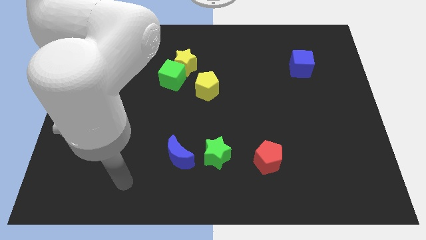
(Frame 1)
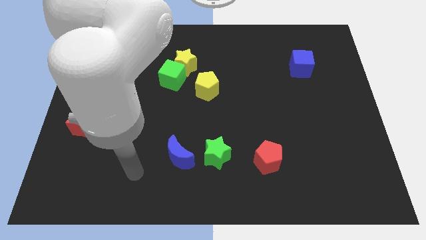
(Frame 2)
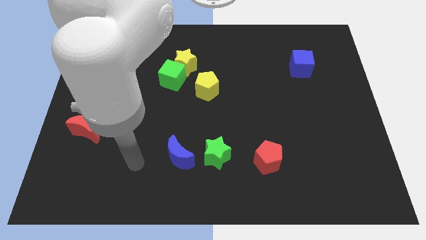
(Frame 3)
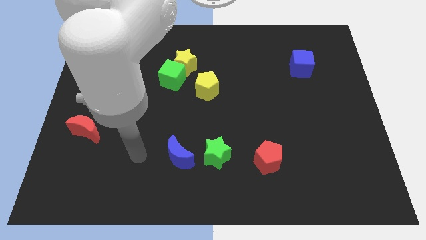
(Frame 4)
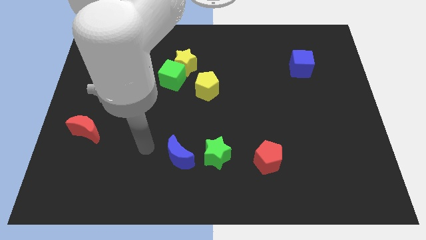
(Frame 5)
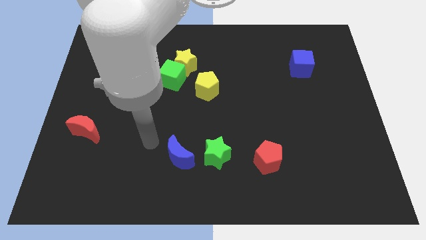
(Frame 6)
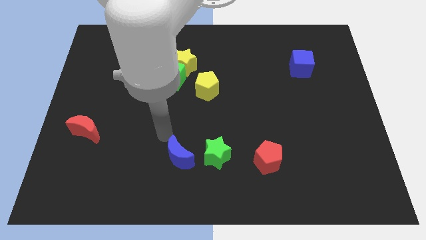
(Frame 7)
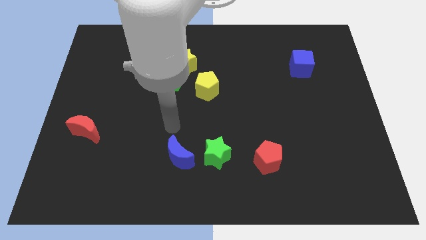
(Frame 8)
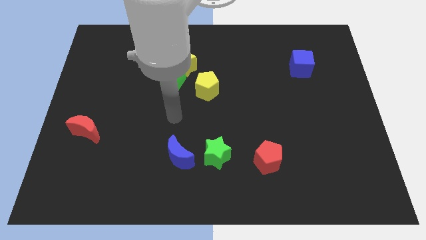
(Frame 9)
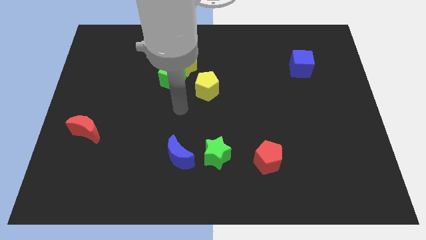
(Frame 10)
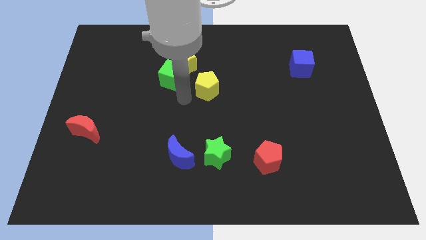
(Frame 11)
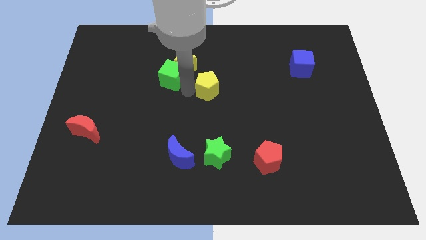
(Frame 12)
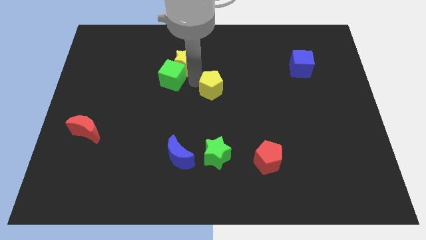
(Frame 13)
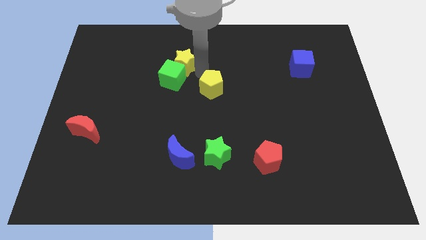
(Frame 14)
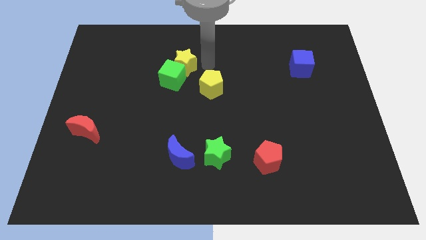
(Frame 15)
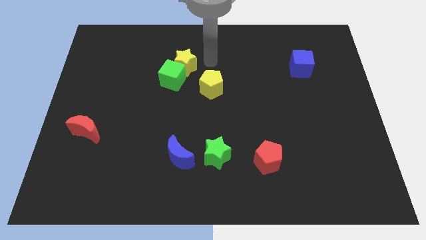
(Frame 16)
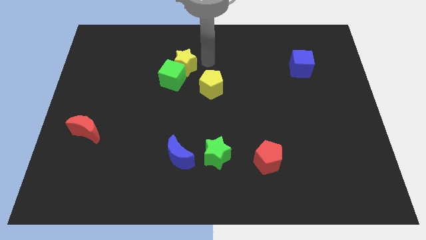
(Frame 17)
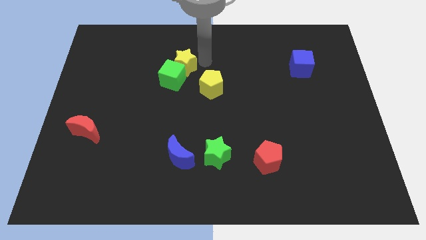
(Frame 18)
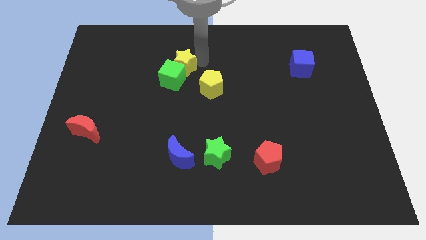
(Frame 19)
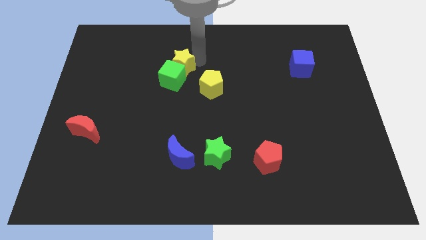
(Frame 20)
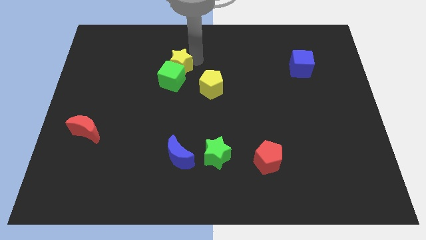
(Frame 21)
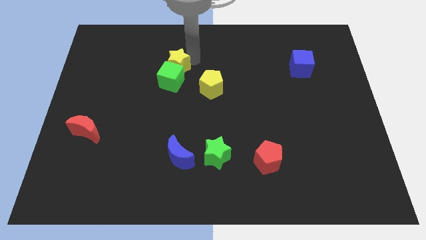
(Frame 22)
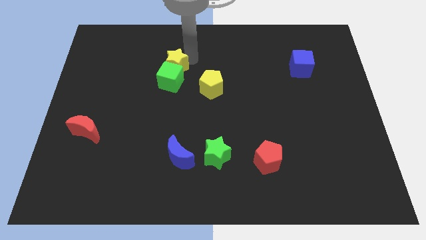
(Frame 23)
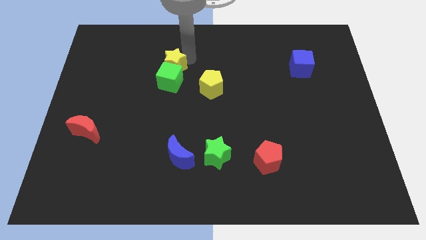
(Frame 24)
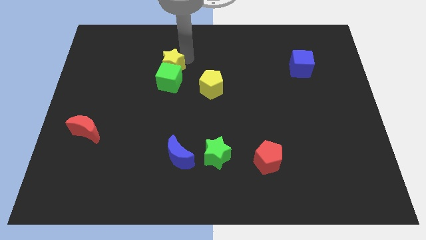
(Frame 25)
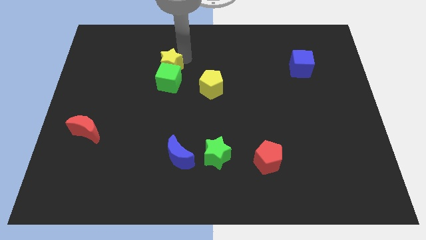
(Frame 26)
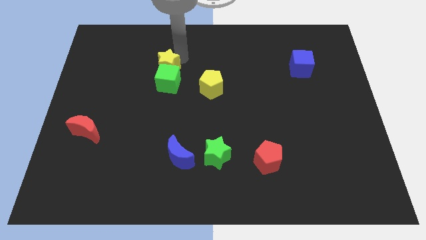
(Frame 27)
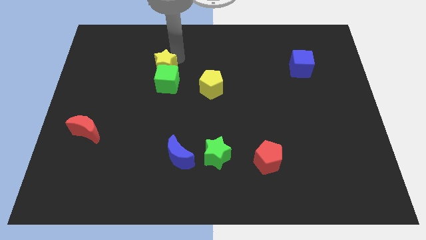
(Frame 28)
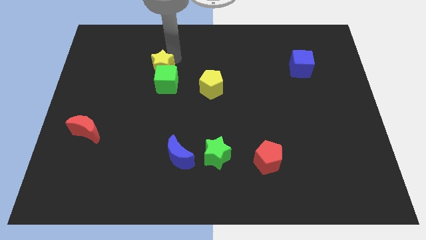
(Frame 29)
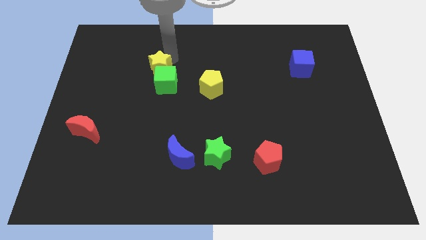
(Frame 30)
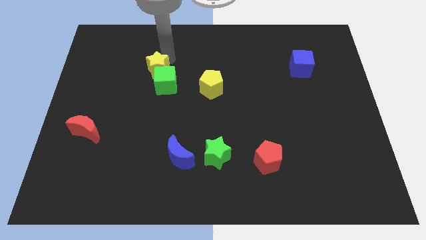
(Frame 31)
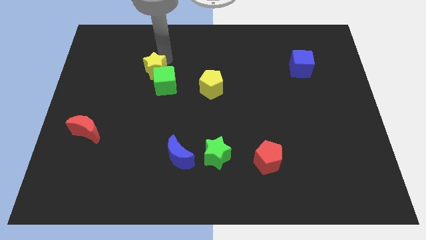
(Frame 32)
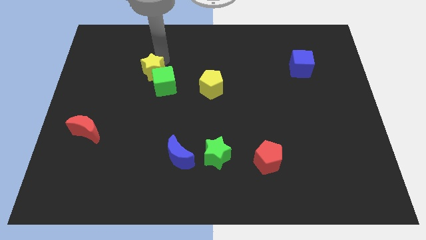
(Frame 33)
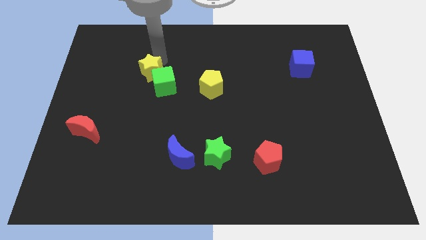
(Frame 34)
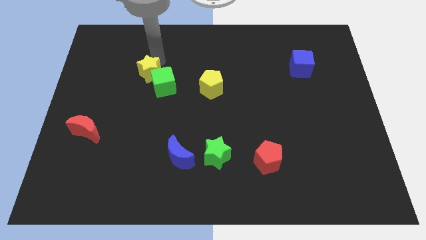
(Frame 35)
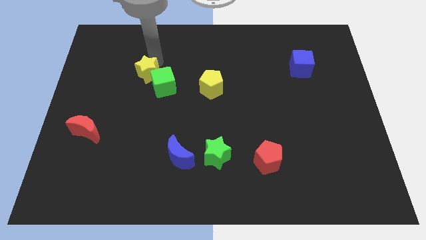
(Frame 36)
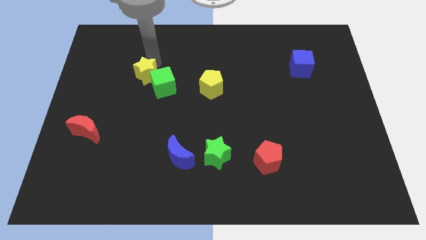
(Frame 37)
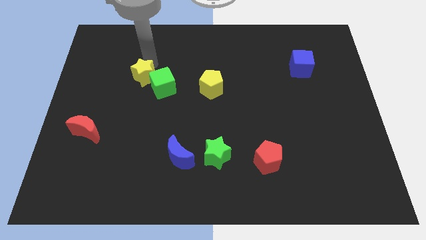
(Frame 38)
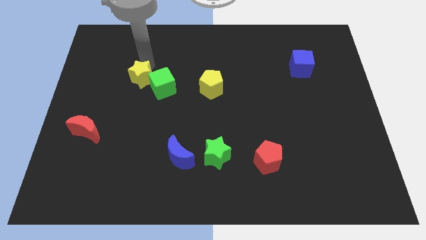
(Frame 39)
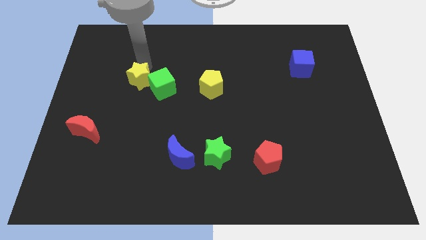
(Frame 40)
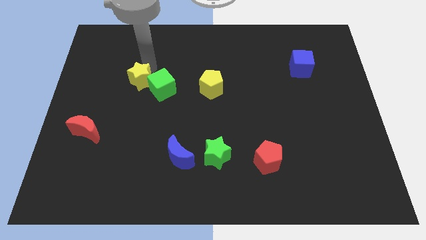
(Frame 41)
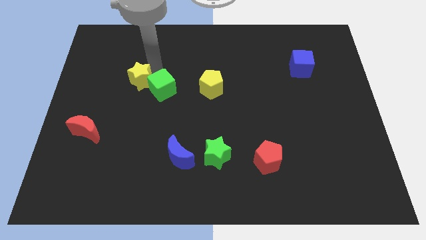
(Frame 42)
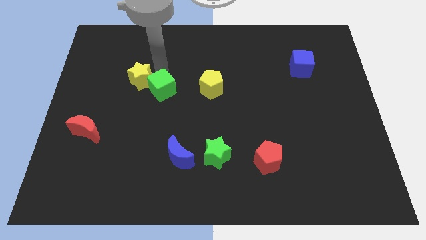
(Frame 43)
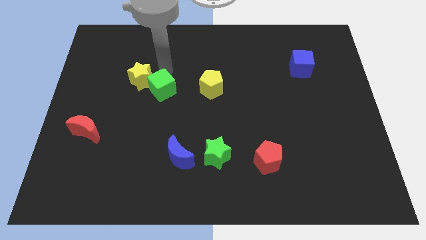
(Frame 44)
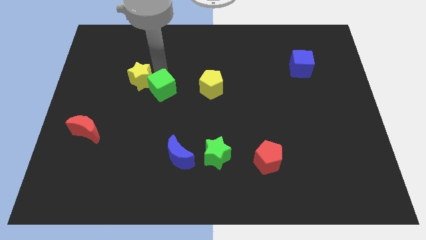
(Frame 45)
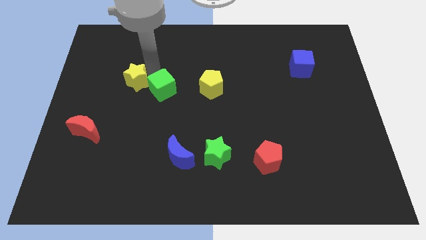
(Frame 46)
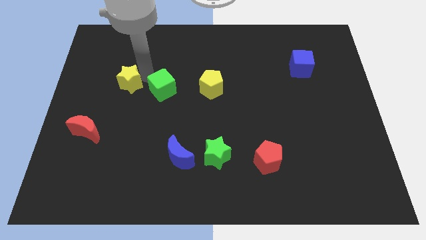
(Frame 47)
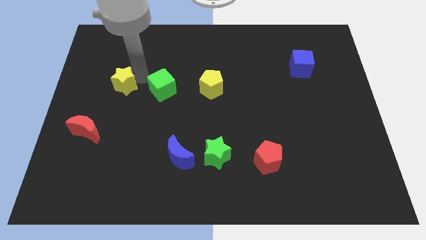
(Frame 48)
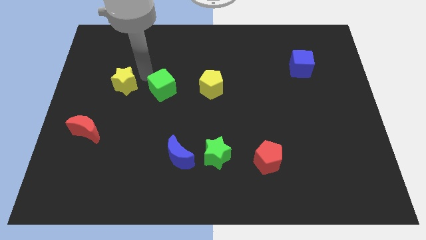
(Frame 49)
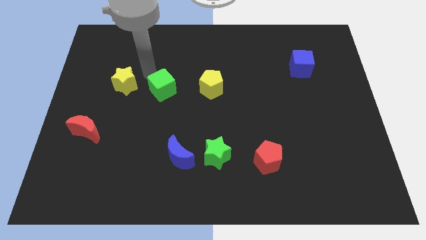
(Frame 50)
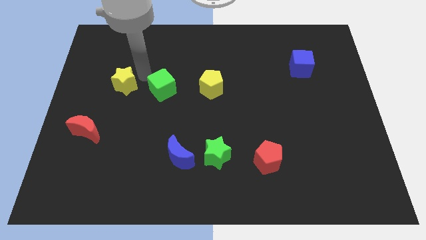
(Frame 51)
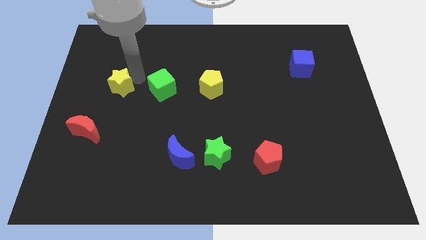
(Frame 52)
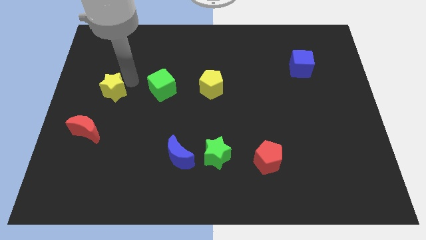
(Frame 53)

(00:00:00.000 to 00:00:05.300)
push the yellow star above the red moon

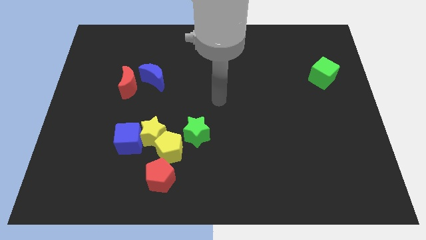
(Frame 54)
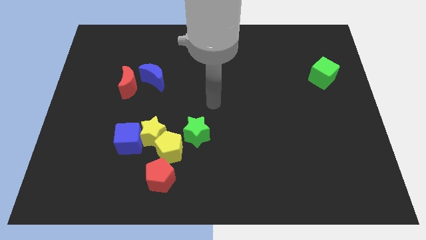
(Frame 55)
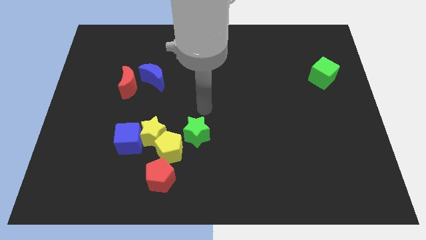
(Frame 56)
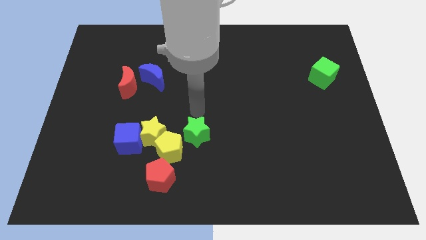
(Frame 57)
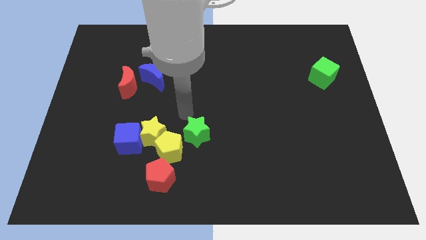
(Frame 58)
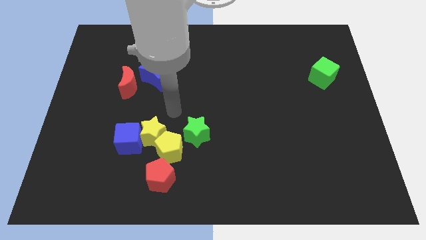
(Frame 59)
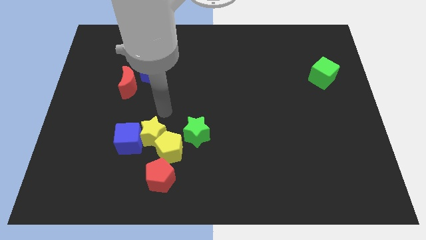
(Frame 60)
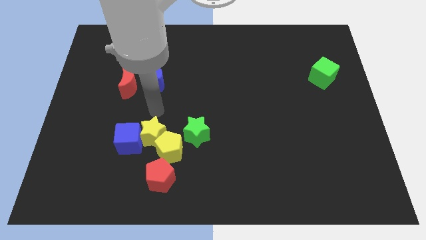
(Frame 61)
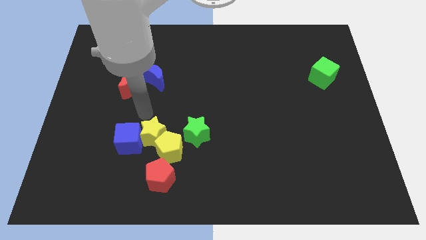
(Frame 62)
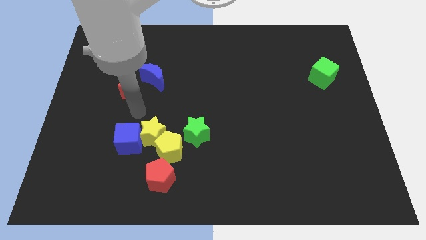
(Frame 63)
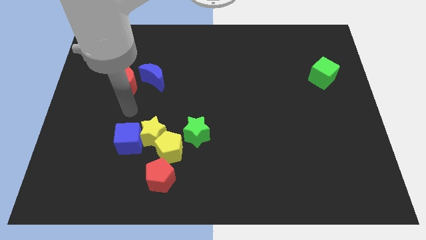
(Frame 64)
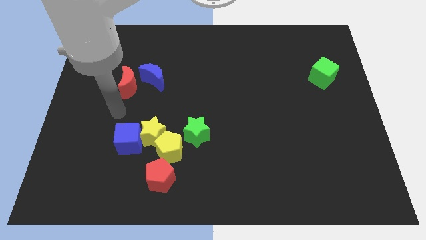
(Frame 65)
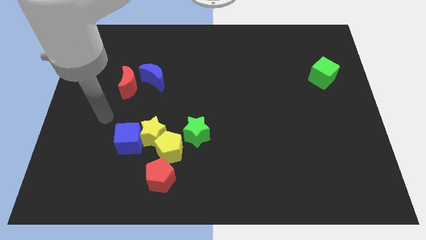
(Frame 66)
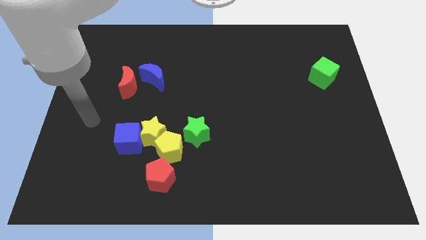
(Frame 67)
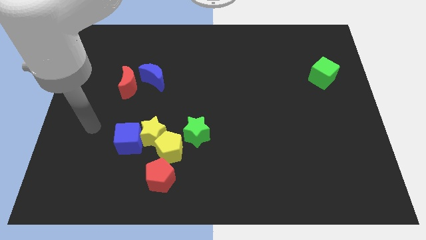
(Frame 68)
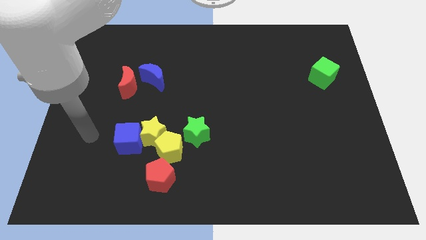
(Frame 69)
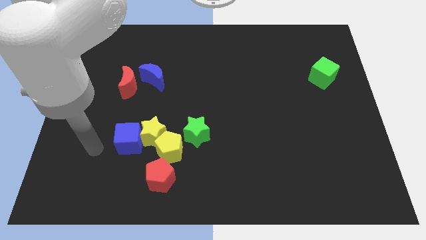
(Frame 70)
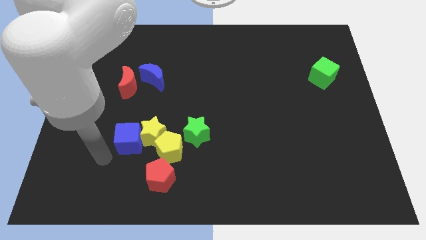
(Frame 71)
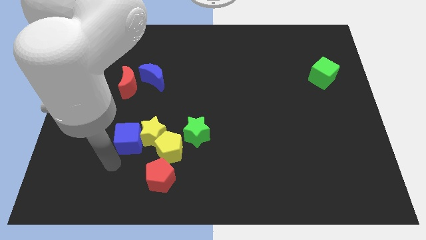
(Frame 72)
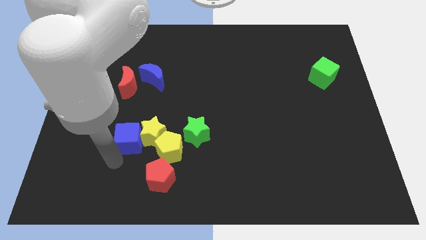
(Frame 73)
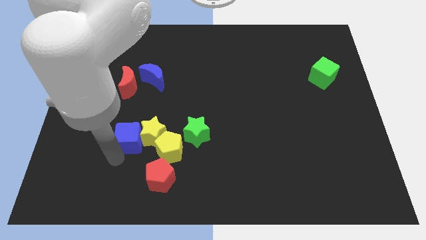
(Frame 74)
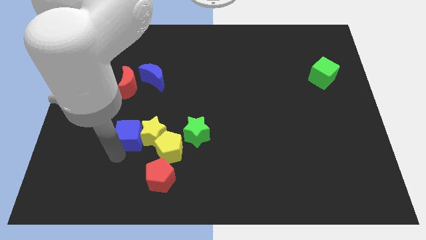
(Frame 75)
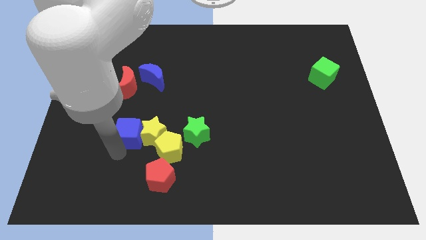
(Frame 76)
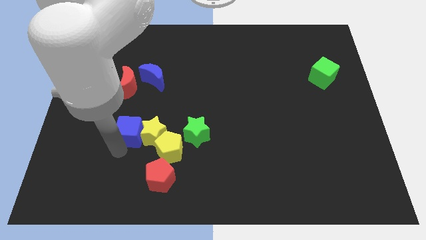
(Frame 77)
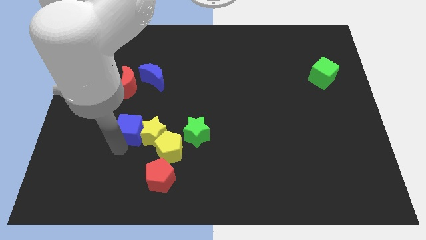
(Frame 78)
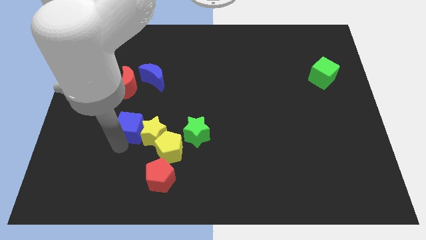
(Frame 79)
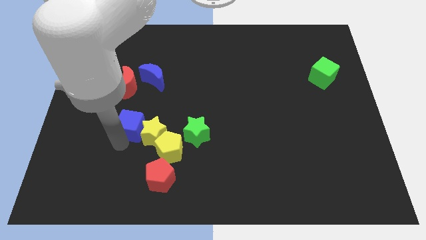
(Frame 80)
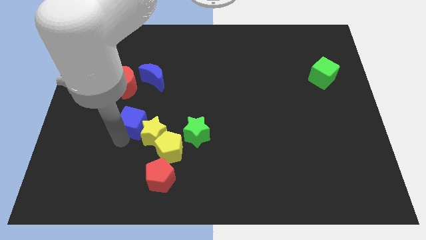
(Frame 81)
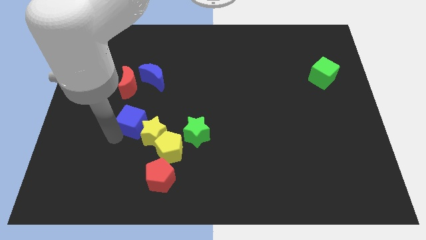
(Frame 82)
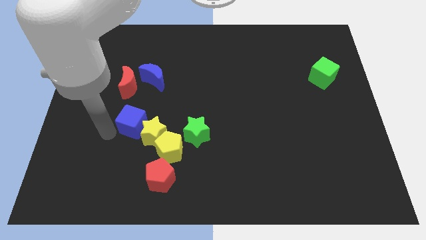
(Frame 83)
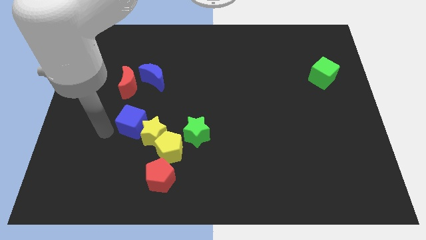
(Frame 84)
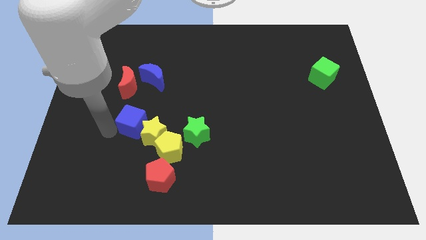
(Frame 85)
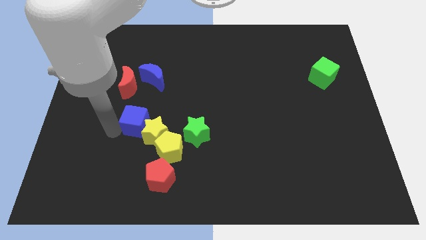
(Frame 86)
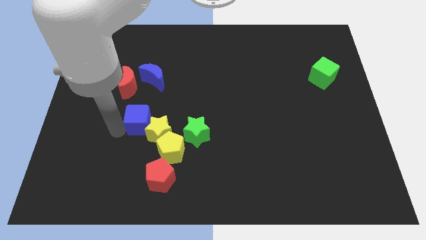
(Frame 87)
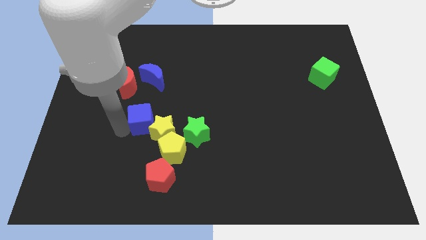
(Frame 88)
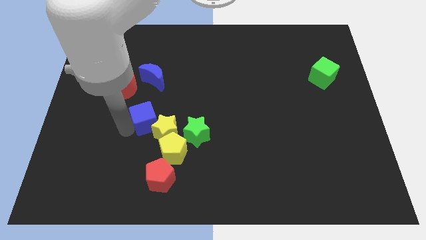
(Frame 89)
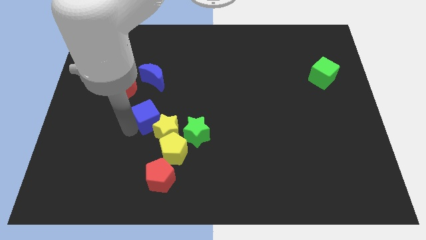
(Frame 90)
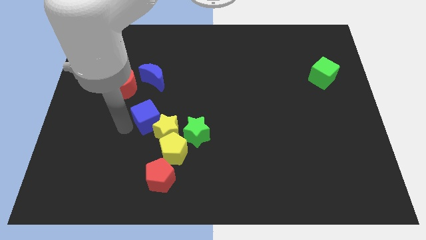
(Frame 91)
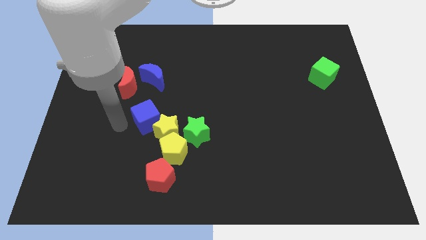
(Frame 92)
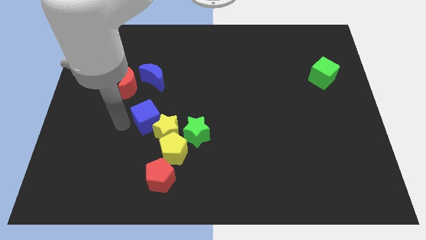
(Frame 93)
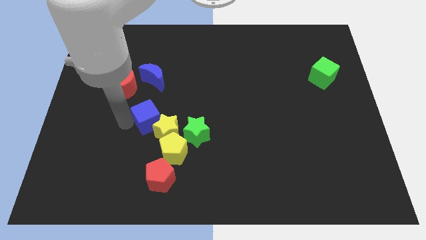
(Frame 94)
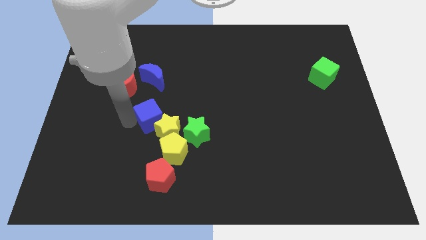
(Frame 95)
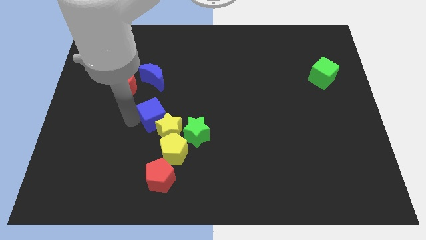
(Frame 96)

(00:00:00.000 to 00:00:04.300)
put the blue cube to the top left side of the green star
